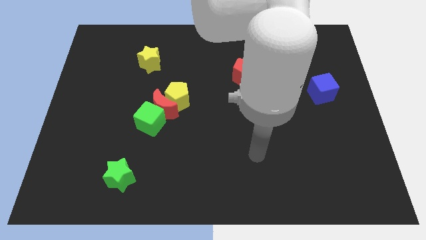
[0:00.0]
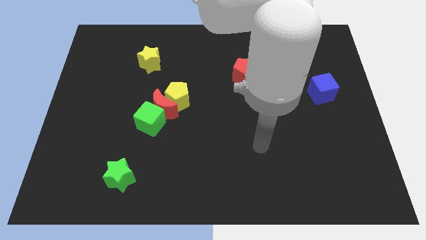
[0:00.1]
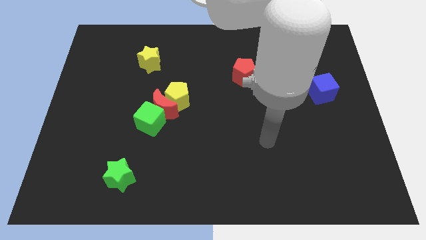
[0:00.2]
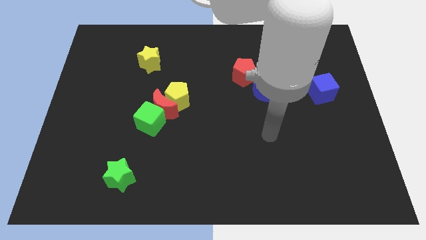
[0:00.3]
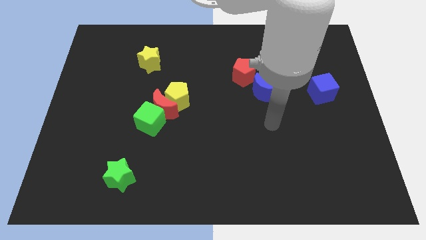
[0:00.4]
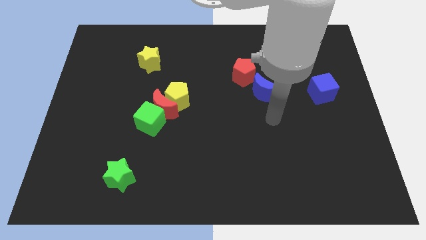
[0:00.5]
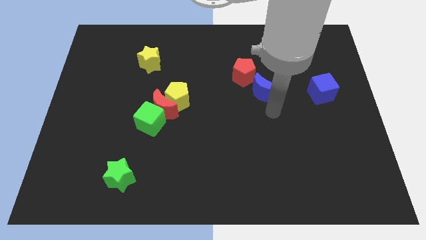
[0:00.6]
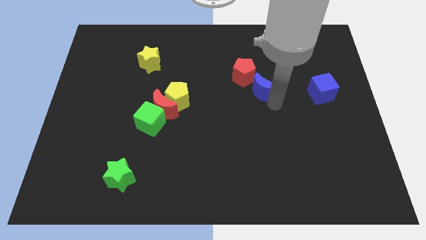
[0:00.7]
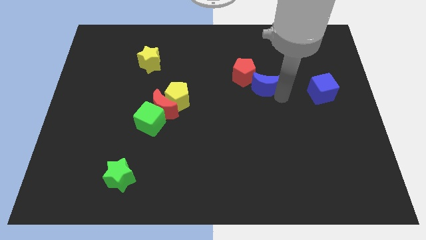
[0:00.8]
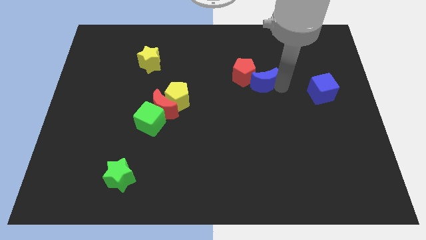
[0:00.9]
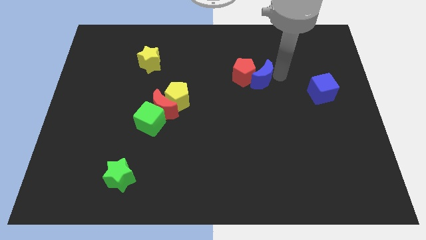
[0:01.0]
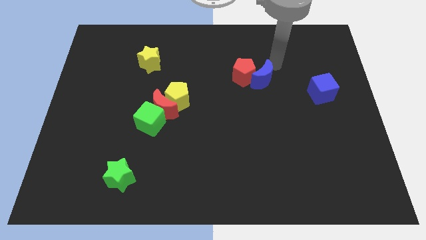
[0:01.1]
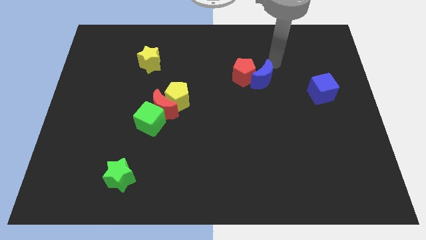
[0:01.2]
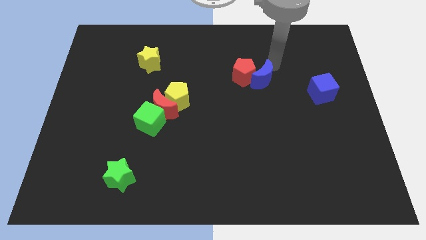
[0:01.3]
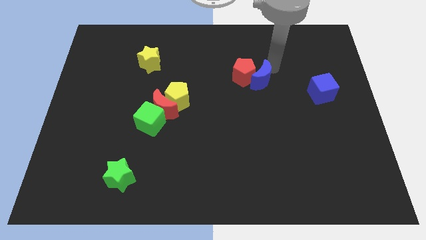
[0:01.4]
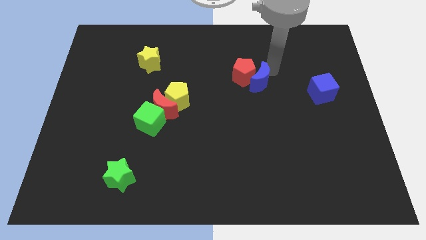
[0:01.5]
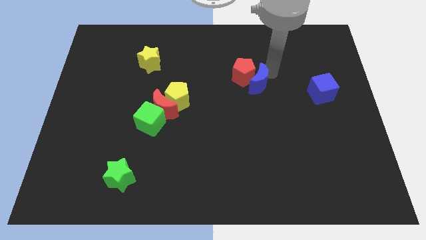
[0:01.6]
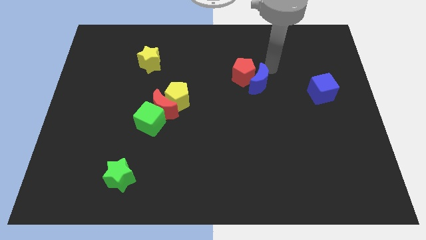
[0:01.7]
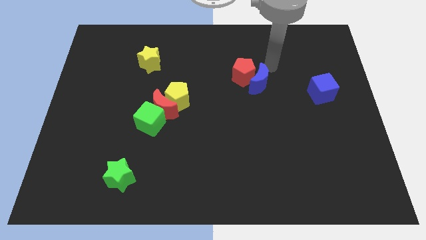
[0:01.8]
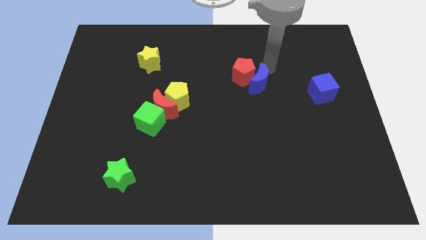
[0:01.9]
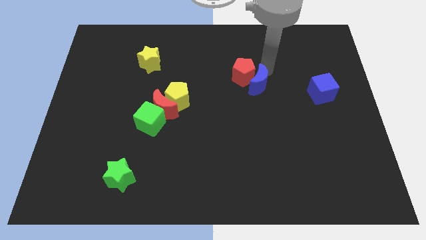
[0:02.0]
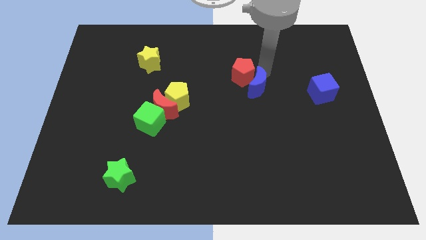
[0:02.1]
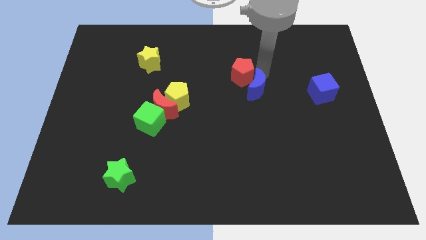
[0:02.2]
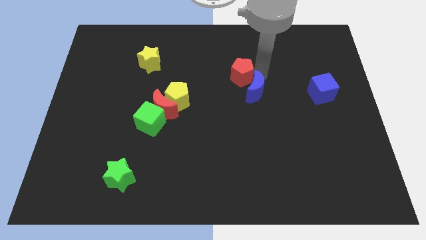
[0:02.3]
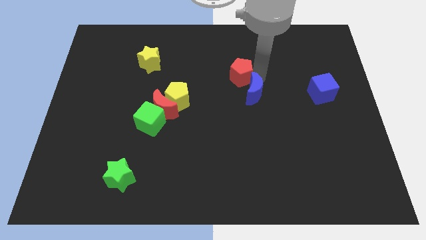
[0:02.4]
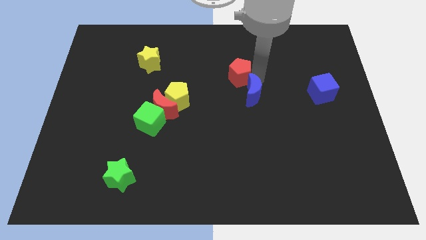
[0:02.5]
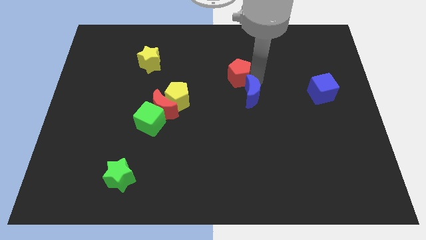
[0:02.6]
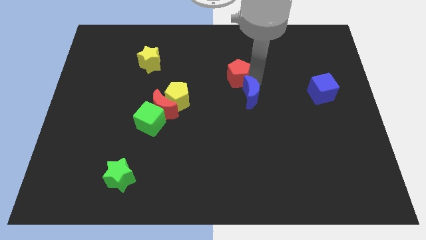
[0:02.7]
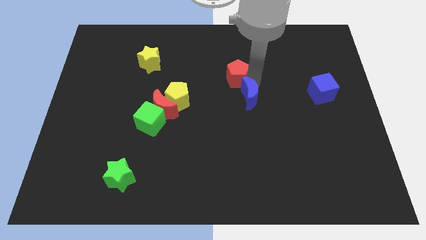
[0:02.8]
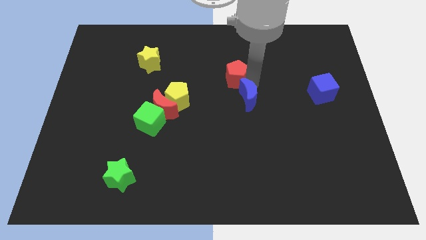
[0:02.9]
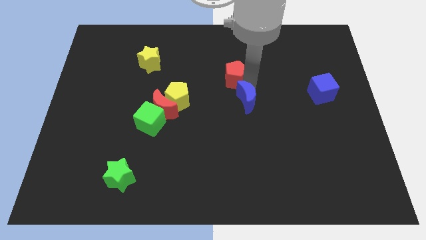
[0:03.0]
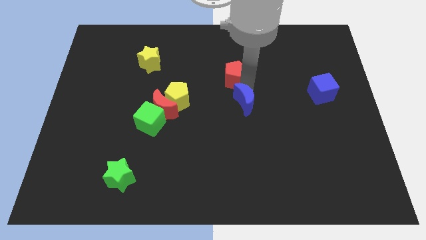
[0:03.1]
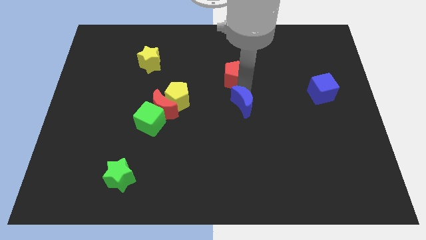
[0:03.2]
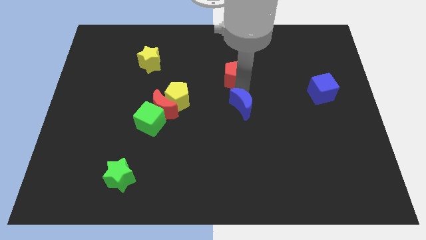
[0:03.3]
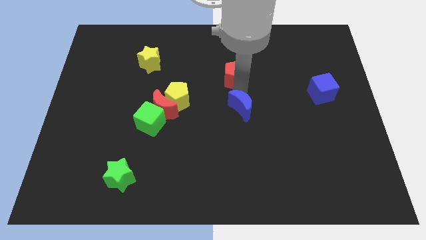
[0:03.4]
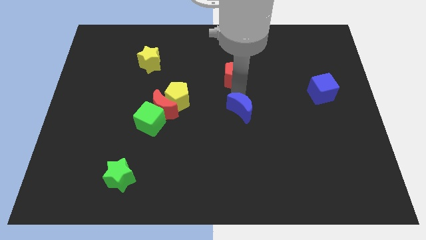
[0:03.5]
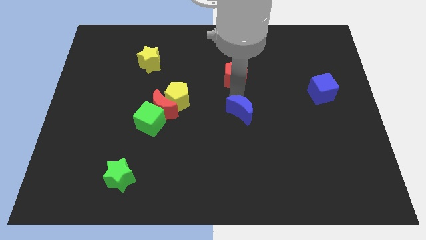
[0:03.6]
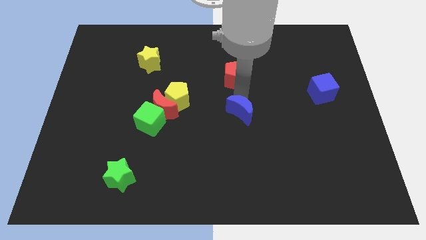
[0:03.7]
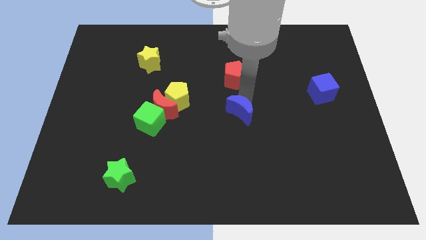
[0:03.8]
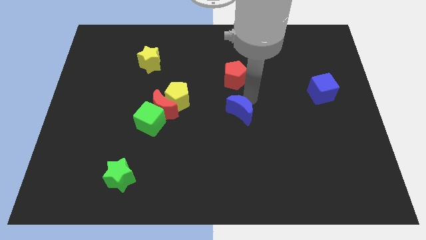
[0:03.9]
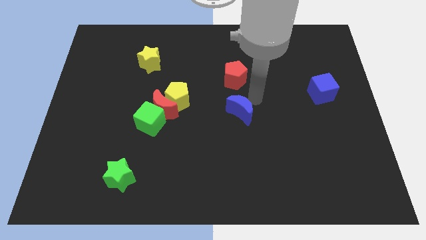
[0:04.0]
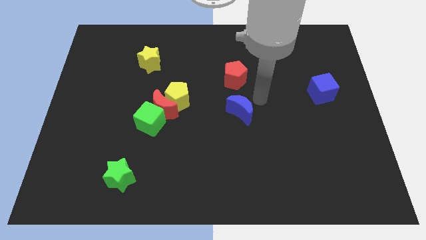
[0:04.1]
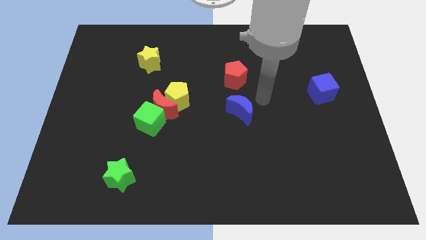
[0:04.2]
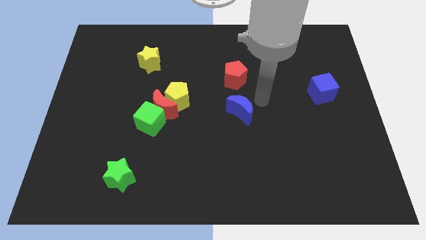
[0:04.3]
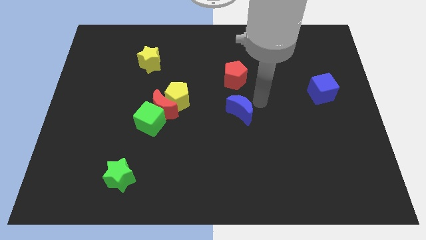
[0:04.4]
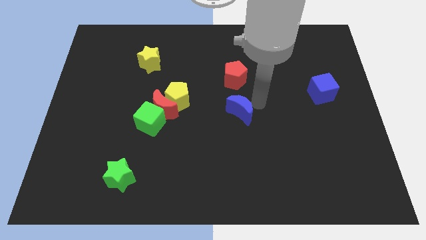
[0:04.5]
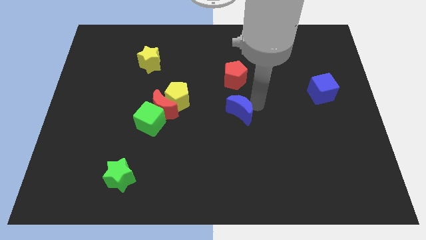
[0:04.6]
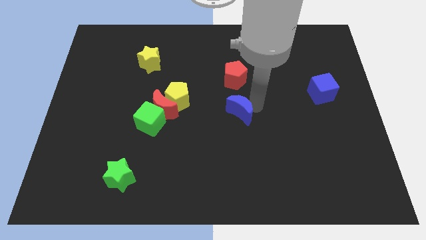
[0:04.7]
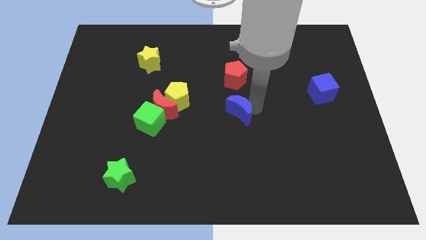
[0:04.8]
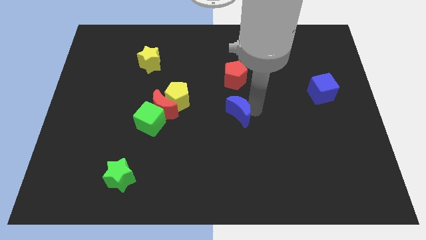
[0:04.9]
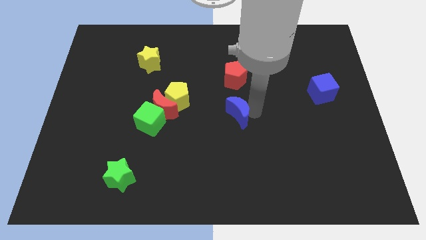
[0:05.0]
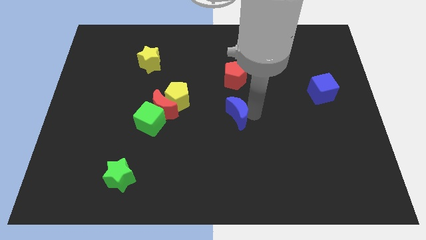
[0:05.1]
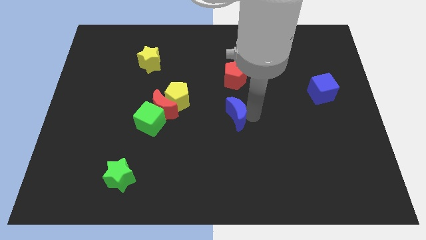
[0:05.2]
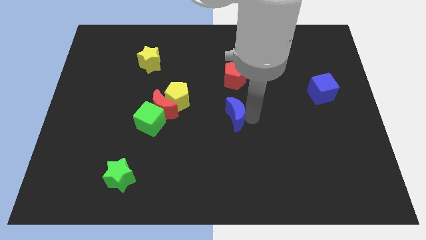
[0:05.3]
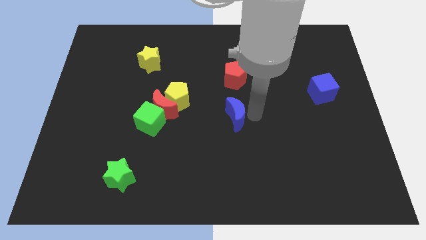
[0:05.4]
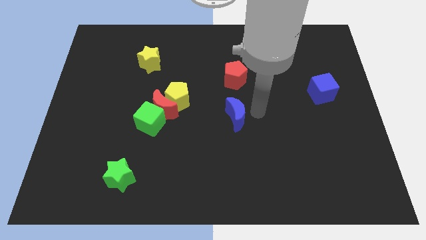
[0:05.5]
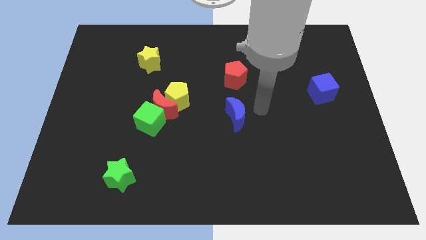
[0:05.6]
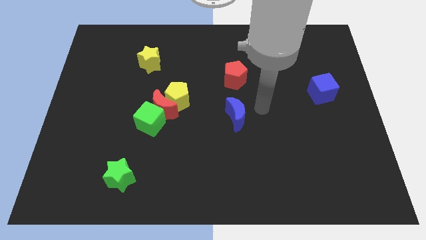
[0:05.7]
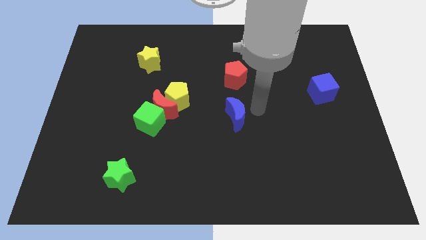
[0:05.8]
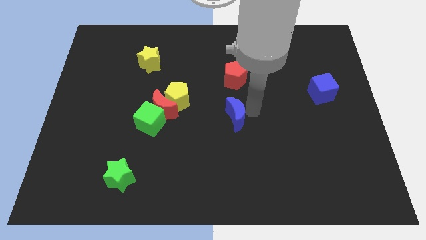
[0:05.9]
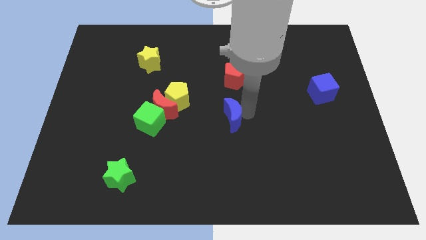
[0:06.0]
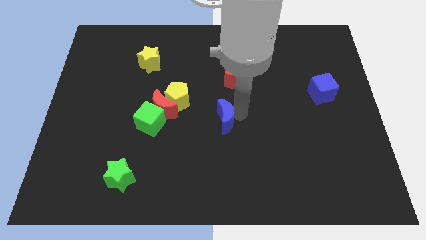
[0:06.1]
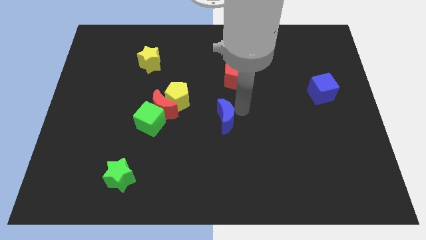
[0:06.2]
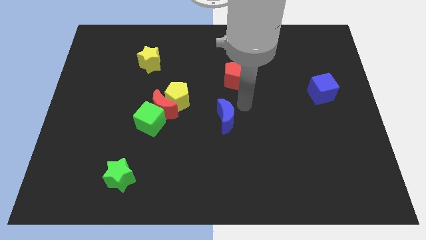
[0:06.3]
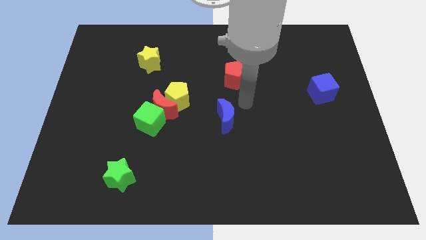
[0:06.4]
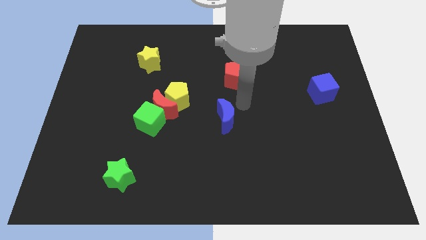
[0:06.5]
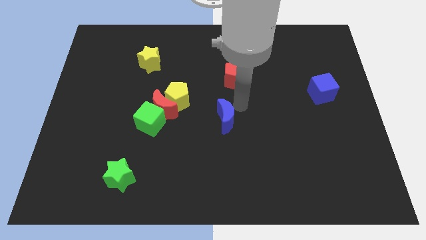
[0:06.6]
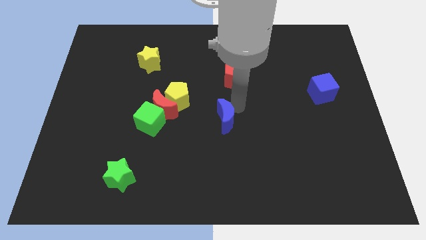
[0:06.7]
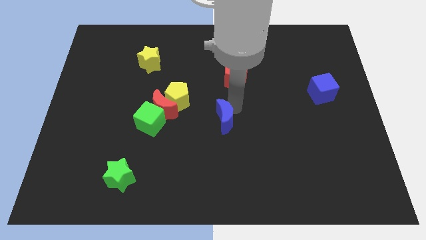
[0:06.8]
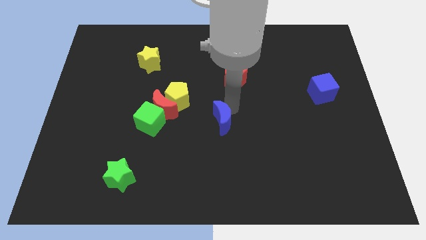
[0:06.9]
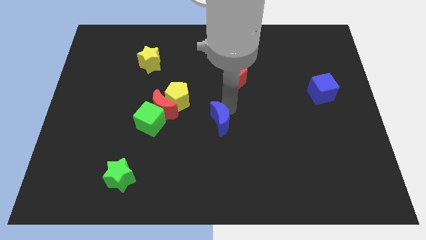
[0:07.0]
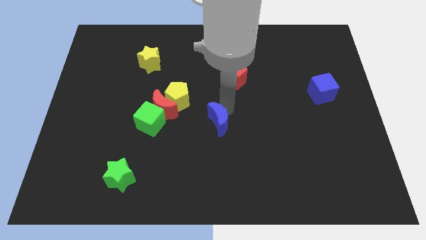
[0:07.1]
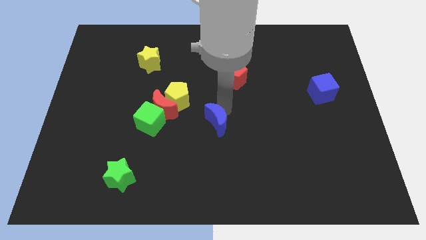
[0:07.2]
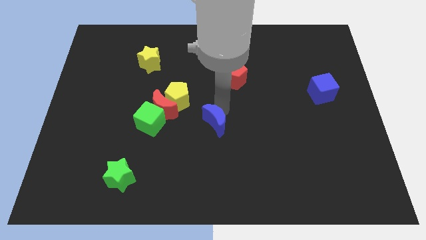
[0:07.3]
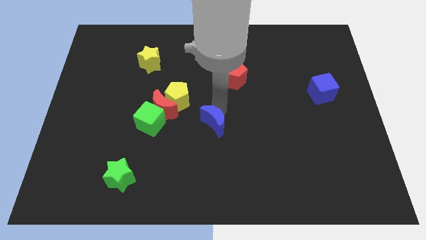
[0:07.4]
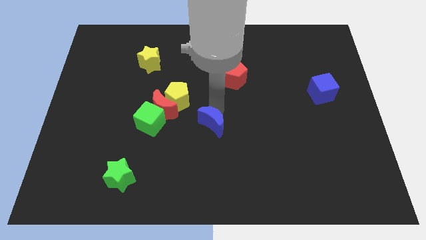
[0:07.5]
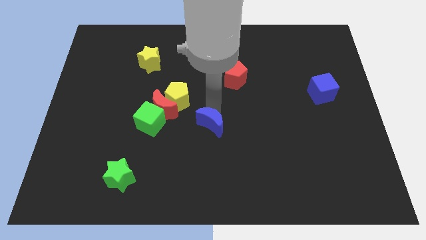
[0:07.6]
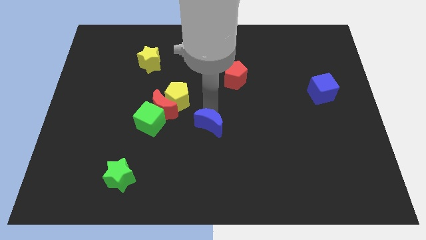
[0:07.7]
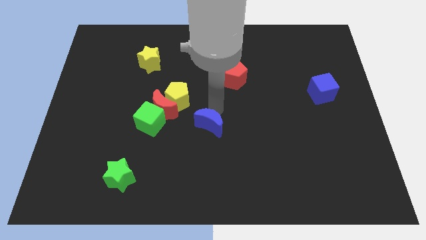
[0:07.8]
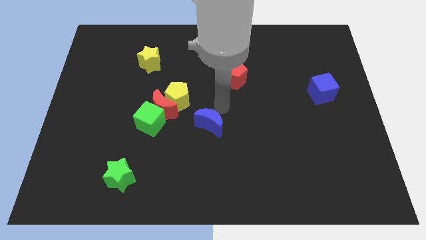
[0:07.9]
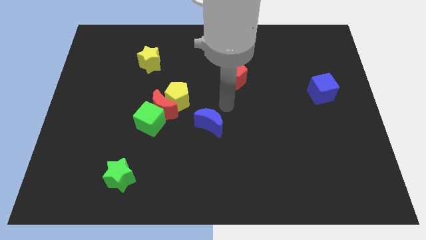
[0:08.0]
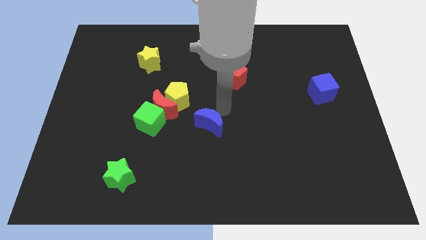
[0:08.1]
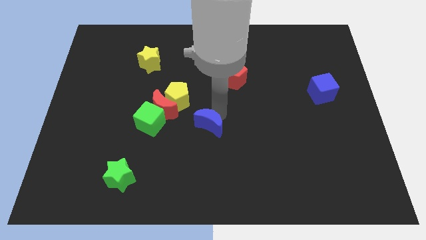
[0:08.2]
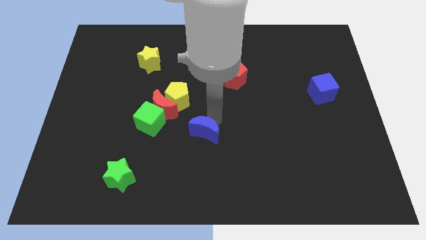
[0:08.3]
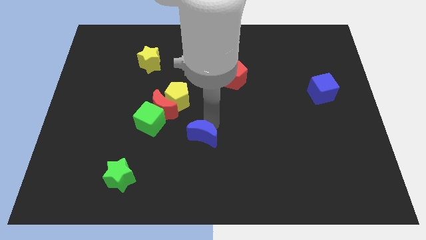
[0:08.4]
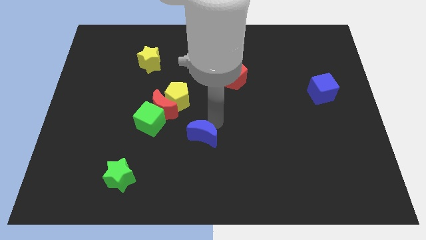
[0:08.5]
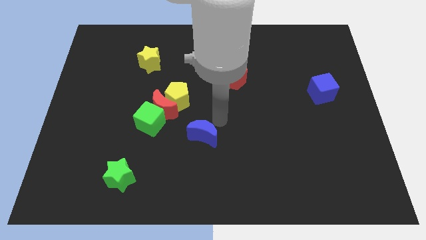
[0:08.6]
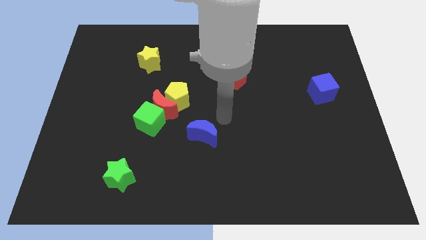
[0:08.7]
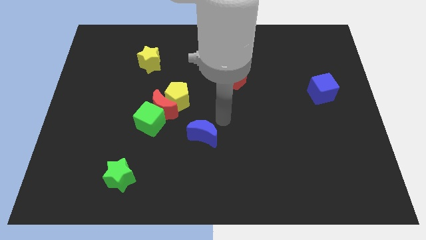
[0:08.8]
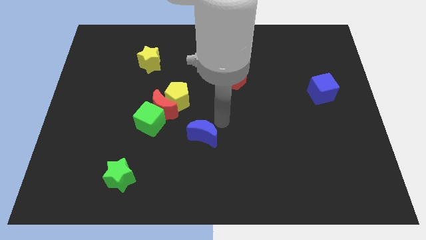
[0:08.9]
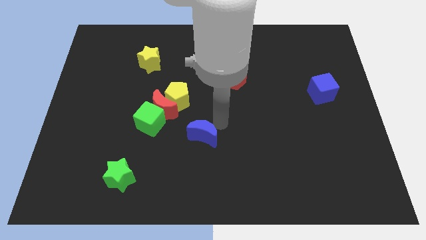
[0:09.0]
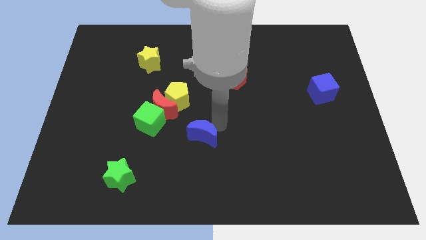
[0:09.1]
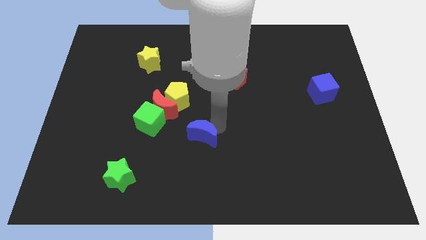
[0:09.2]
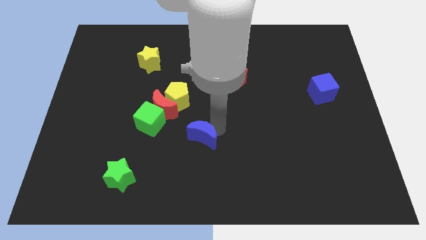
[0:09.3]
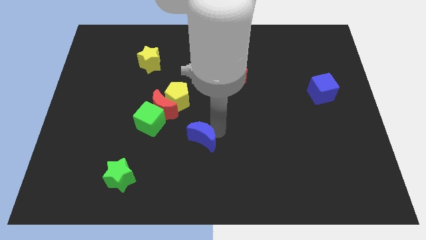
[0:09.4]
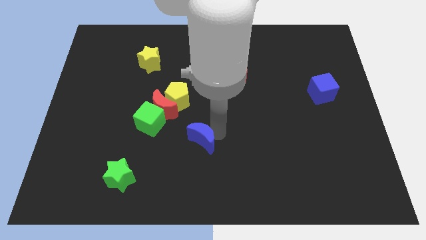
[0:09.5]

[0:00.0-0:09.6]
push the blue moon down and then left
